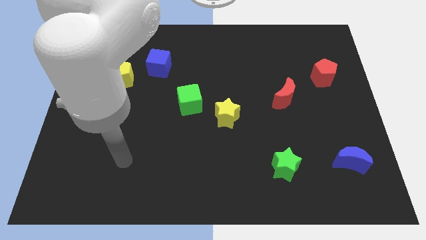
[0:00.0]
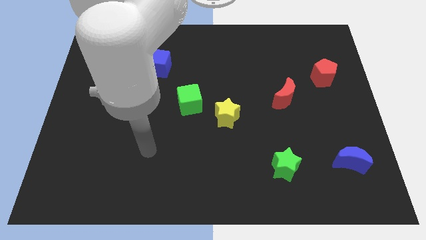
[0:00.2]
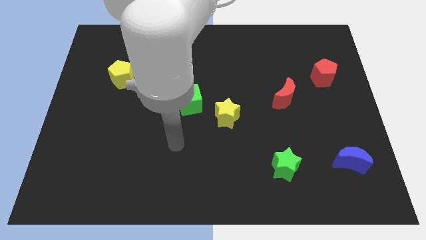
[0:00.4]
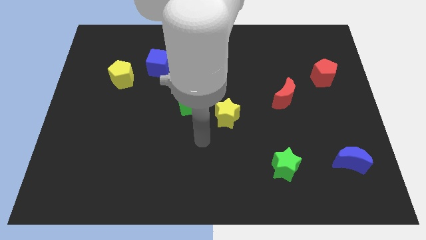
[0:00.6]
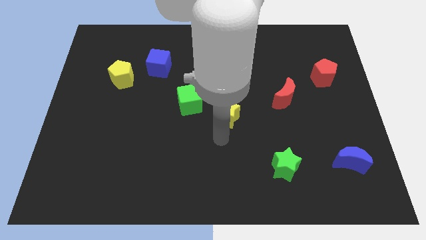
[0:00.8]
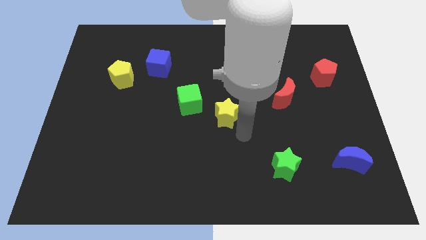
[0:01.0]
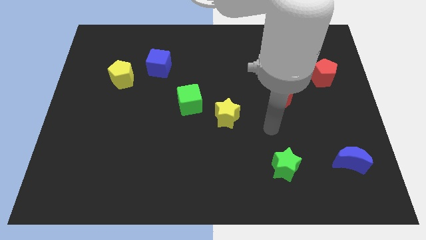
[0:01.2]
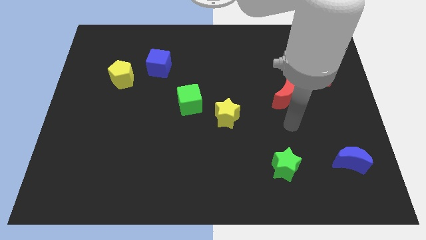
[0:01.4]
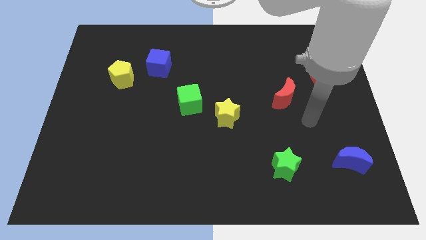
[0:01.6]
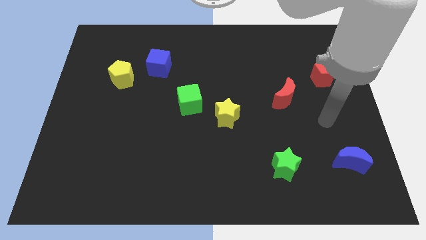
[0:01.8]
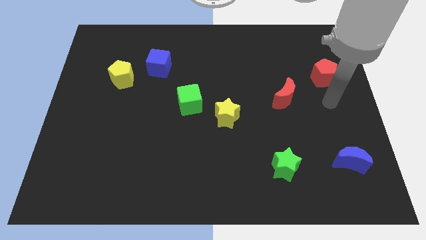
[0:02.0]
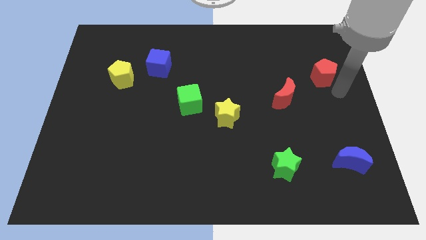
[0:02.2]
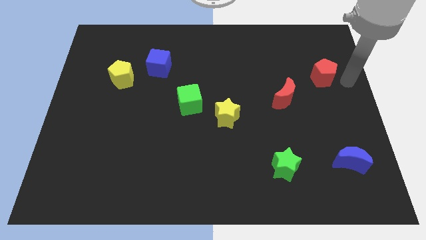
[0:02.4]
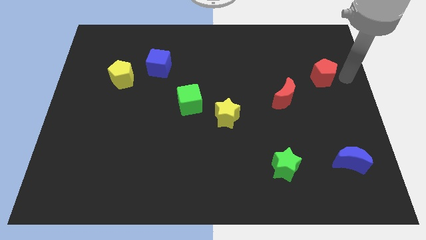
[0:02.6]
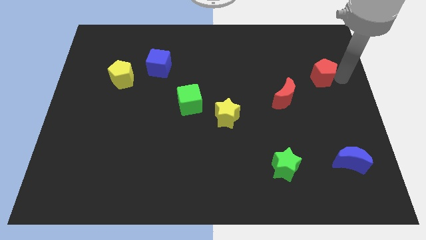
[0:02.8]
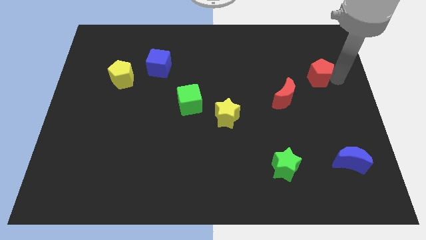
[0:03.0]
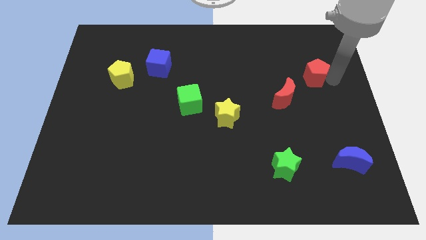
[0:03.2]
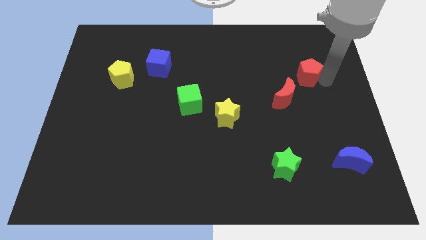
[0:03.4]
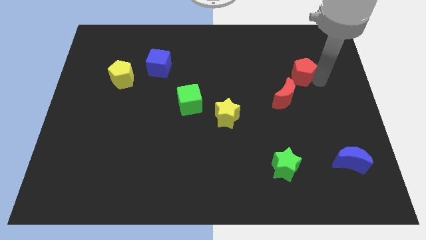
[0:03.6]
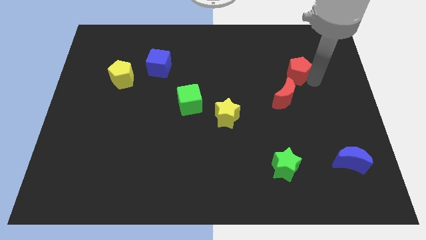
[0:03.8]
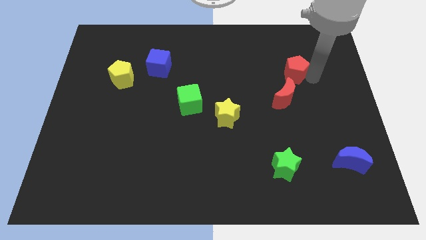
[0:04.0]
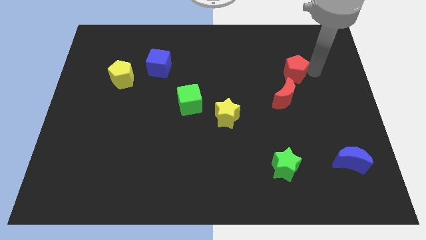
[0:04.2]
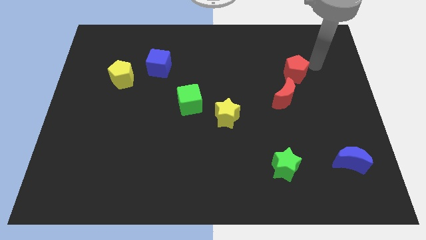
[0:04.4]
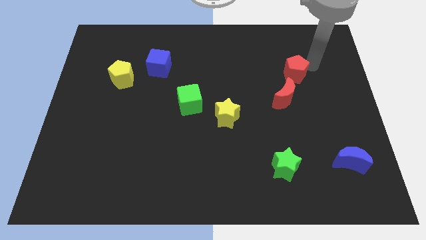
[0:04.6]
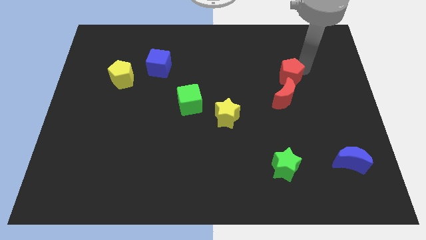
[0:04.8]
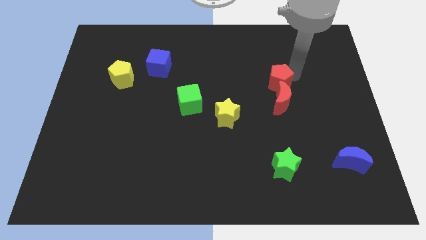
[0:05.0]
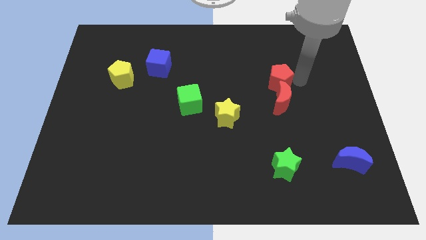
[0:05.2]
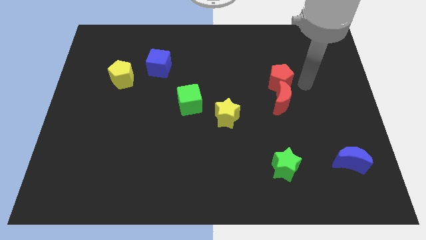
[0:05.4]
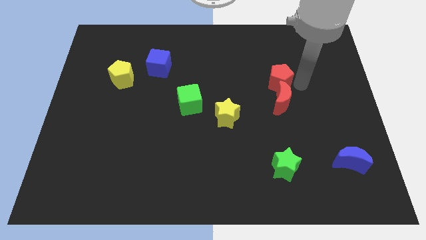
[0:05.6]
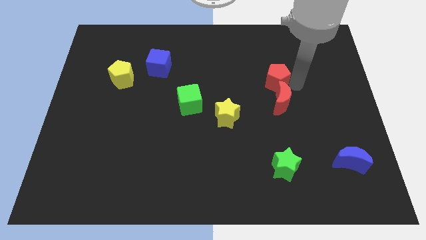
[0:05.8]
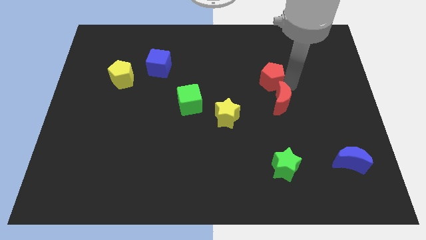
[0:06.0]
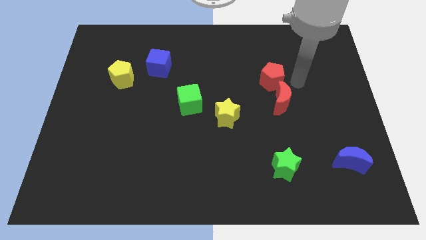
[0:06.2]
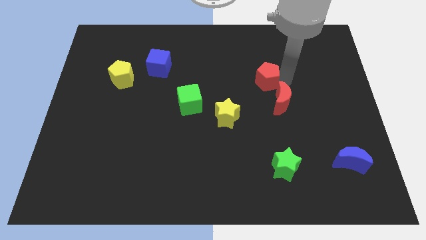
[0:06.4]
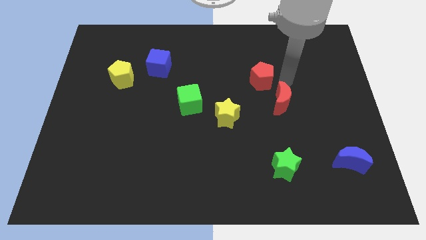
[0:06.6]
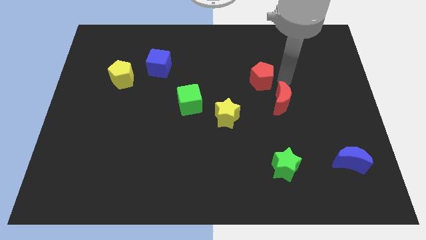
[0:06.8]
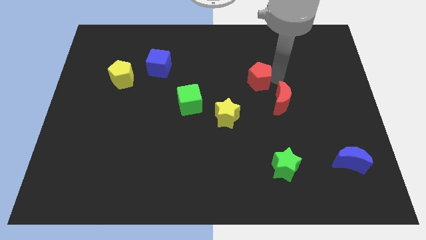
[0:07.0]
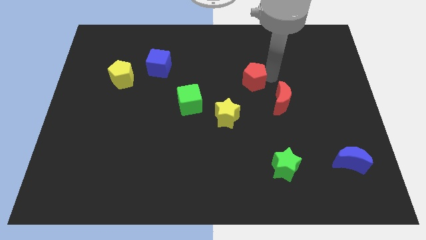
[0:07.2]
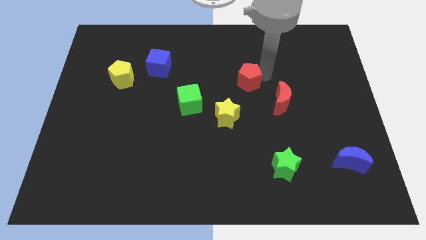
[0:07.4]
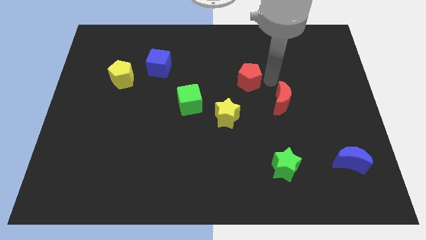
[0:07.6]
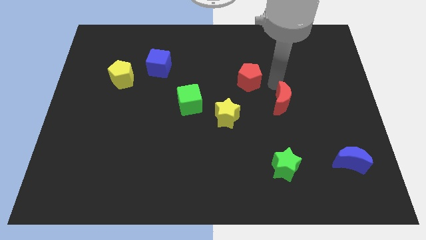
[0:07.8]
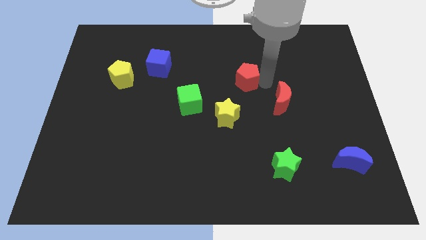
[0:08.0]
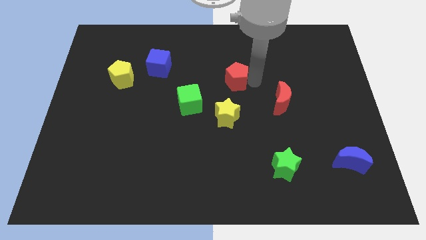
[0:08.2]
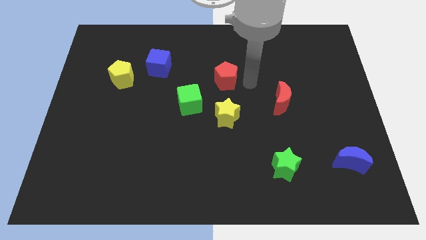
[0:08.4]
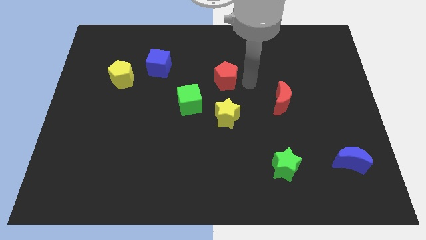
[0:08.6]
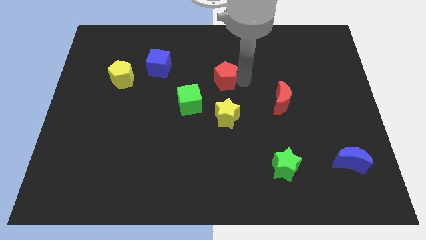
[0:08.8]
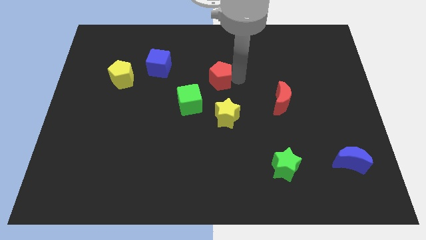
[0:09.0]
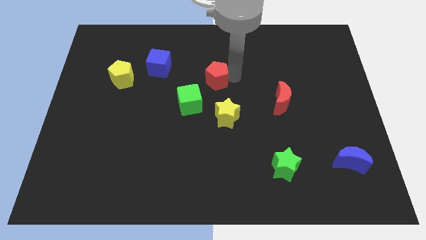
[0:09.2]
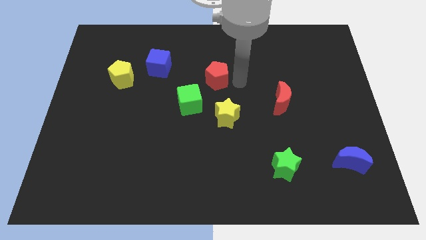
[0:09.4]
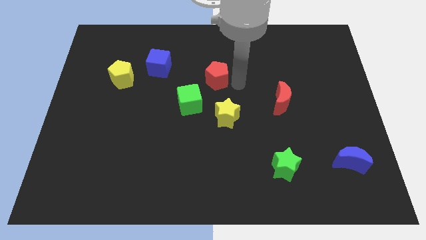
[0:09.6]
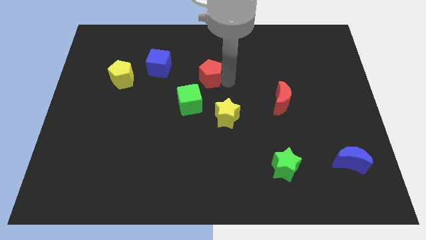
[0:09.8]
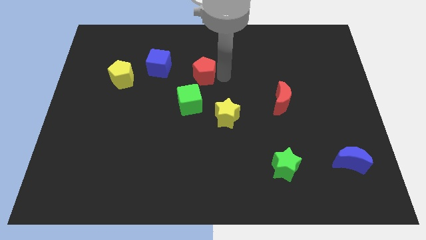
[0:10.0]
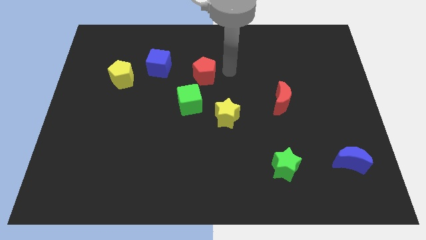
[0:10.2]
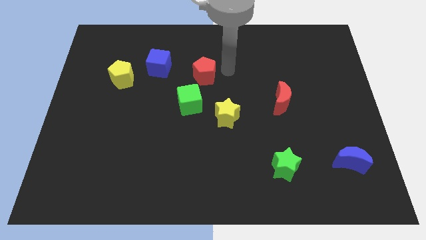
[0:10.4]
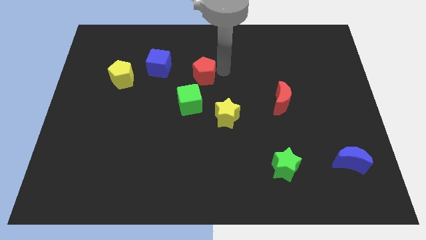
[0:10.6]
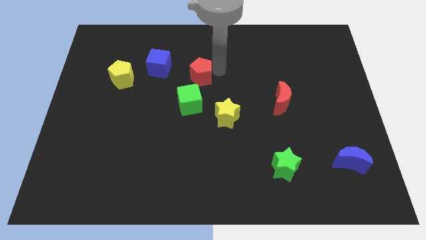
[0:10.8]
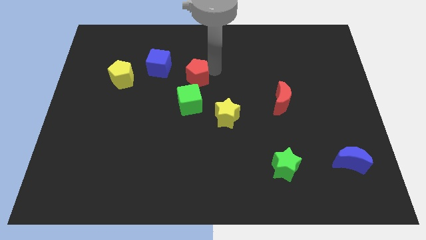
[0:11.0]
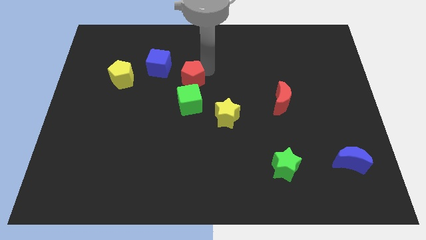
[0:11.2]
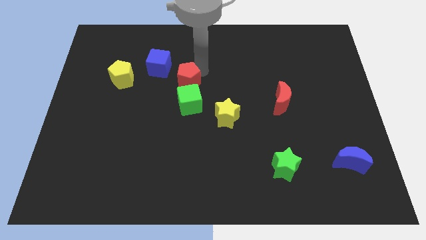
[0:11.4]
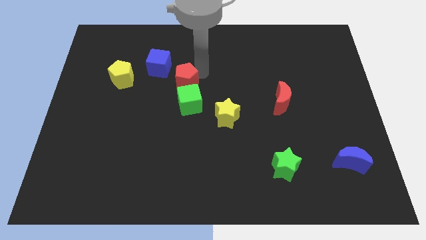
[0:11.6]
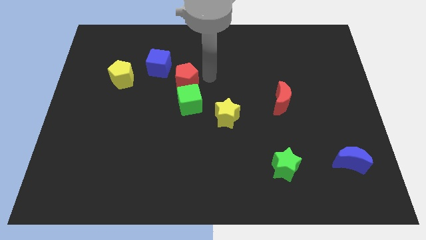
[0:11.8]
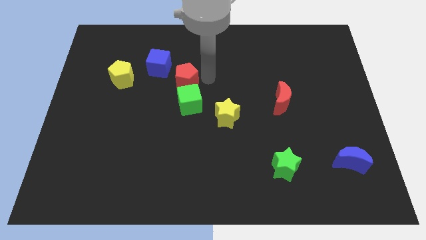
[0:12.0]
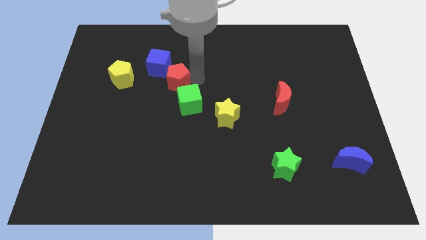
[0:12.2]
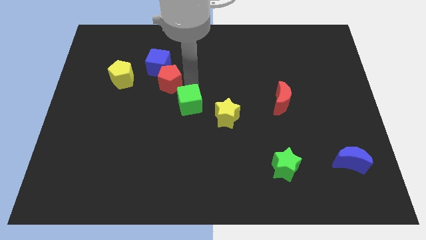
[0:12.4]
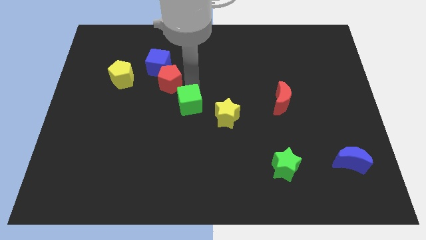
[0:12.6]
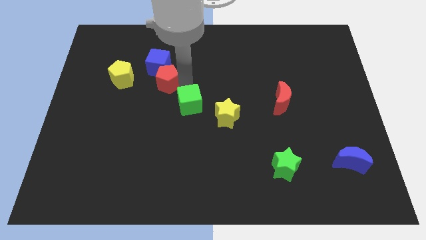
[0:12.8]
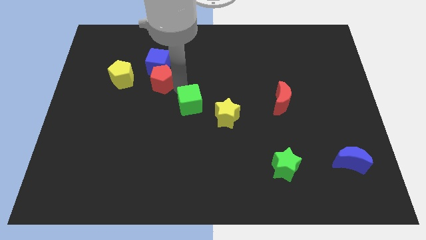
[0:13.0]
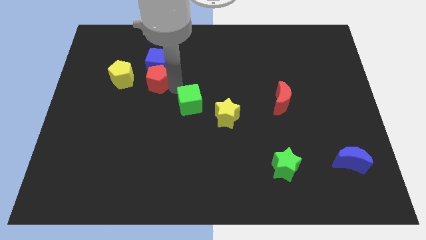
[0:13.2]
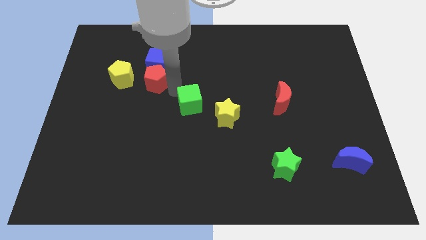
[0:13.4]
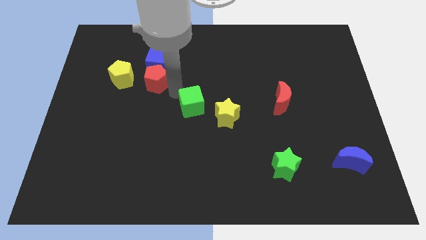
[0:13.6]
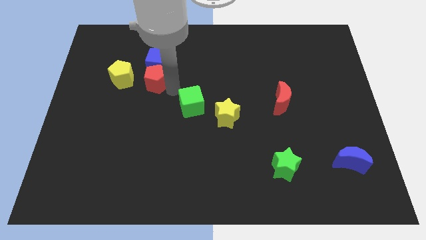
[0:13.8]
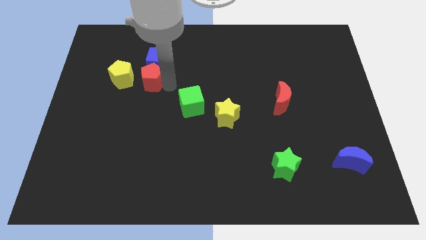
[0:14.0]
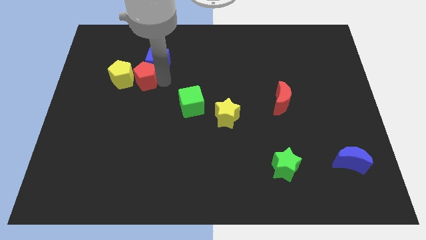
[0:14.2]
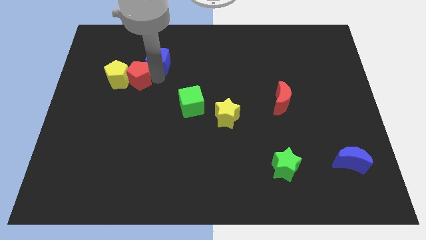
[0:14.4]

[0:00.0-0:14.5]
push the red pentagon to the left side of the blue cube
